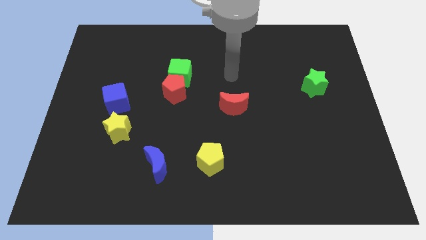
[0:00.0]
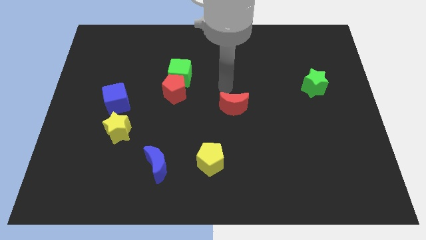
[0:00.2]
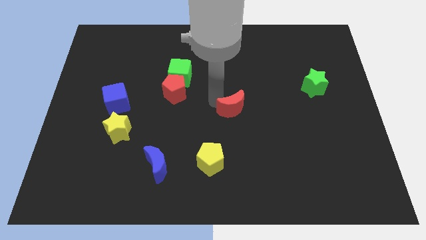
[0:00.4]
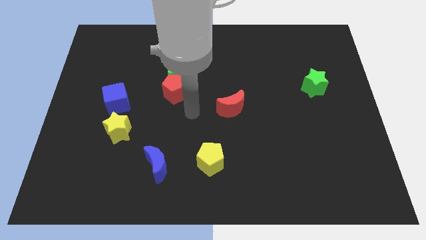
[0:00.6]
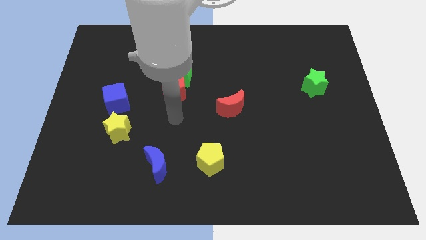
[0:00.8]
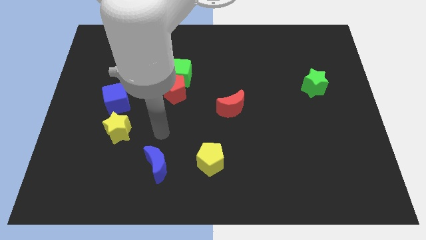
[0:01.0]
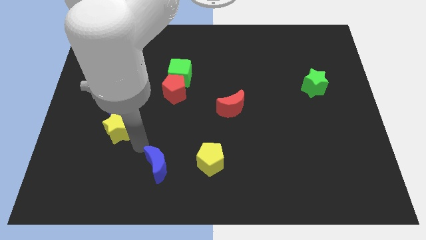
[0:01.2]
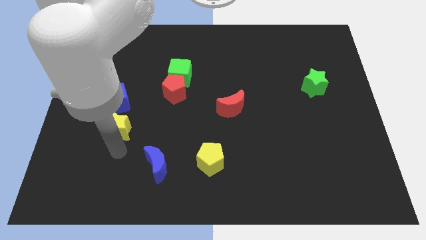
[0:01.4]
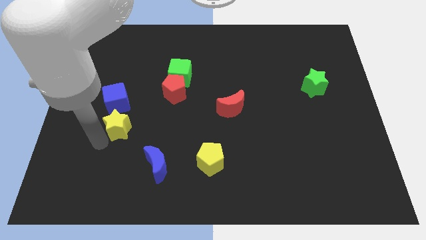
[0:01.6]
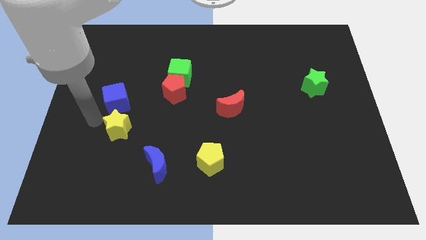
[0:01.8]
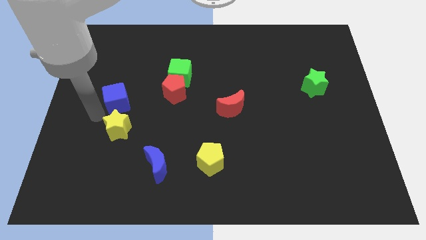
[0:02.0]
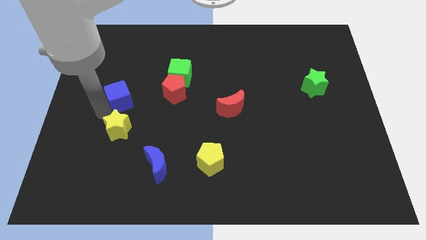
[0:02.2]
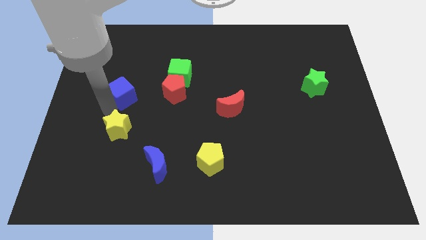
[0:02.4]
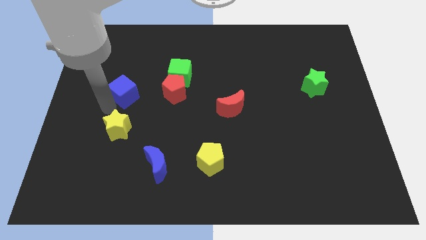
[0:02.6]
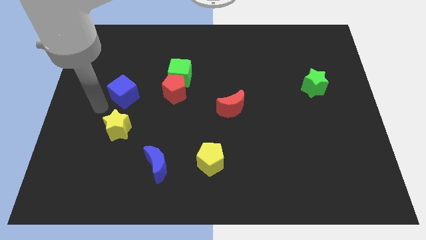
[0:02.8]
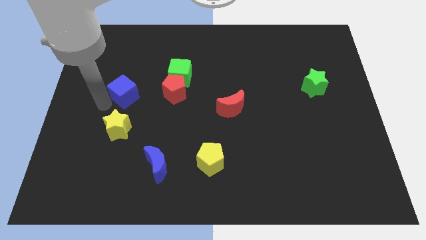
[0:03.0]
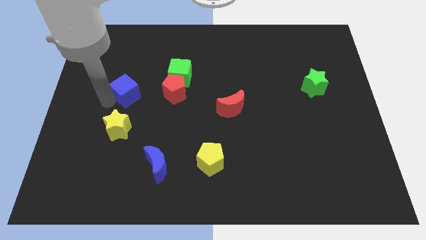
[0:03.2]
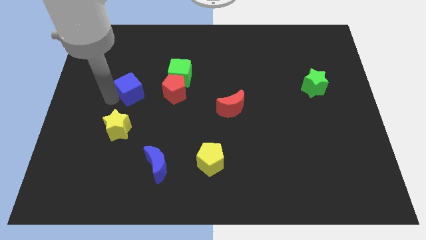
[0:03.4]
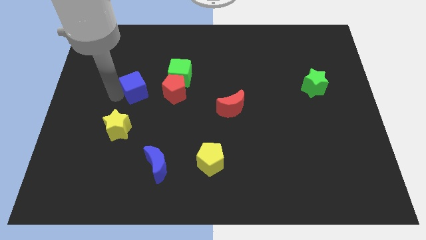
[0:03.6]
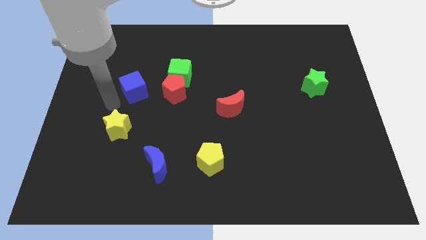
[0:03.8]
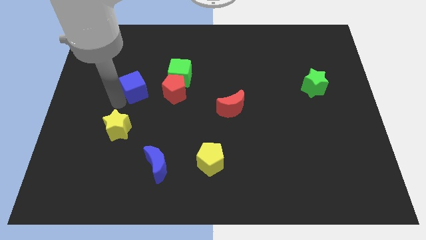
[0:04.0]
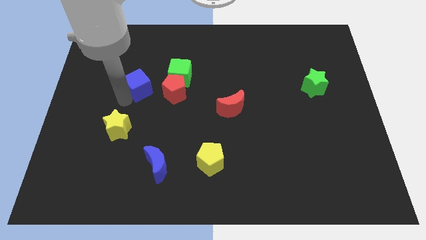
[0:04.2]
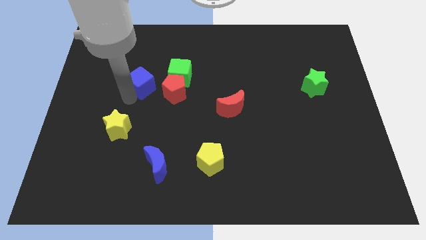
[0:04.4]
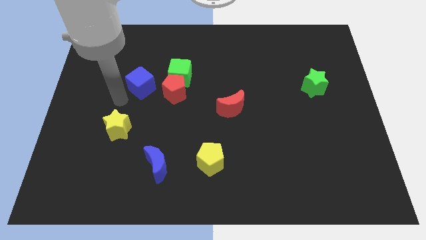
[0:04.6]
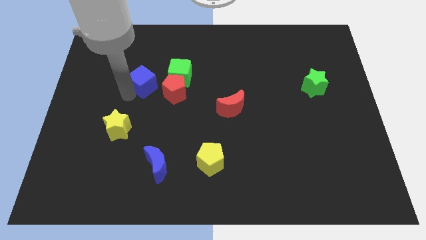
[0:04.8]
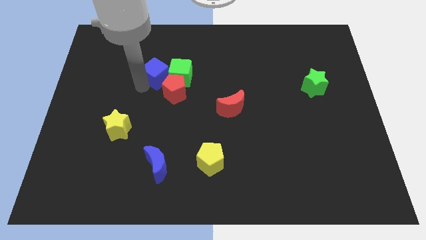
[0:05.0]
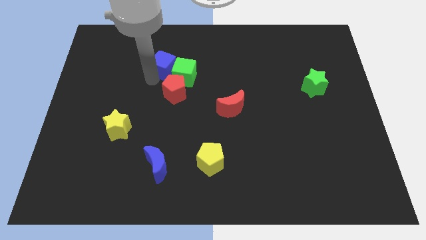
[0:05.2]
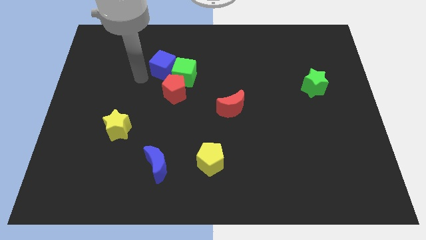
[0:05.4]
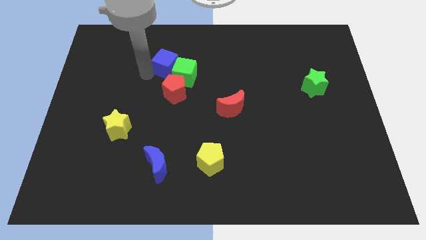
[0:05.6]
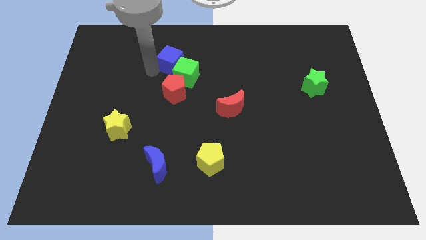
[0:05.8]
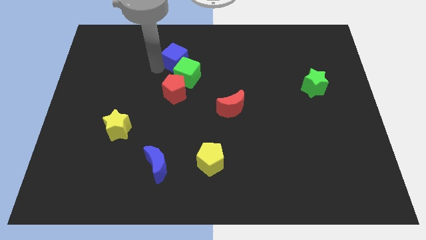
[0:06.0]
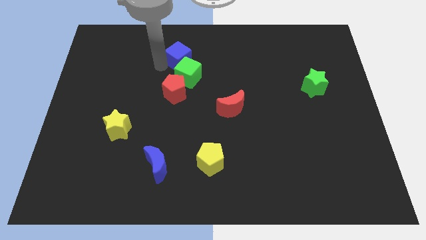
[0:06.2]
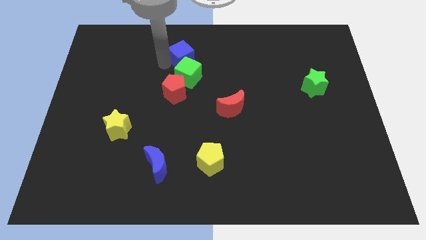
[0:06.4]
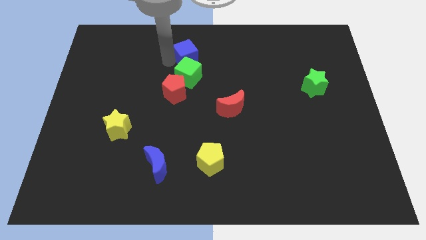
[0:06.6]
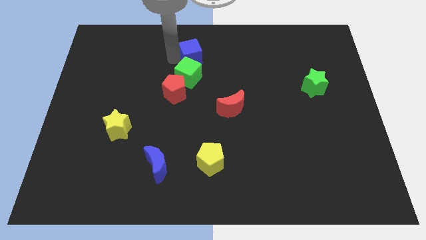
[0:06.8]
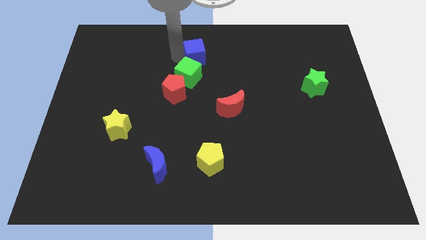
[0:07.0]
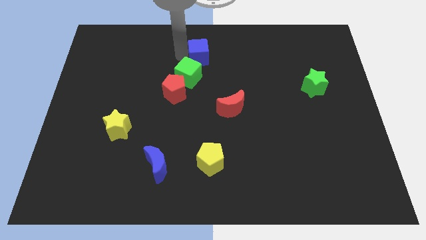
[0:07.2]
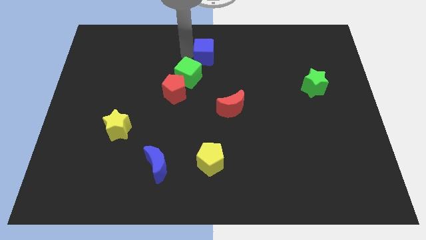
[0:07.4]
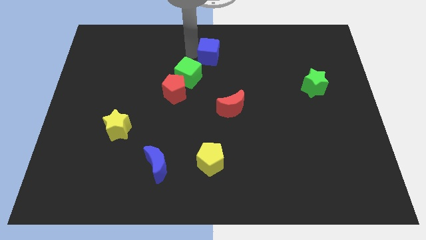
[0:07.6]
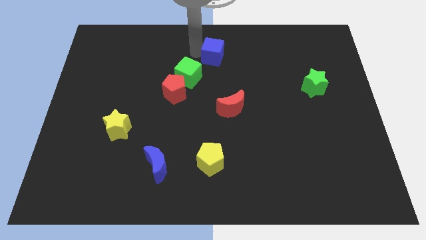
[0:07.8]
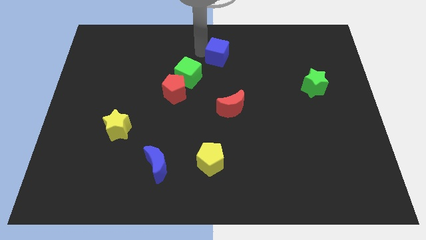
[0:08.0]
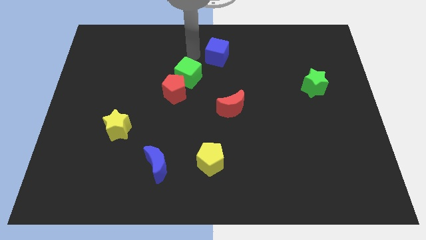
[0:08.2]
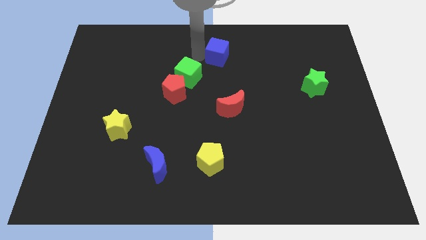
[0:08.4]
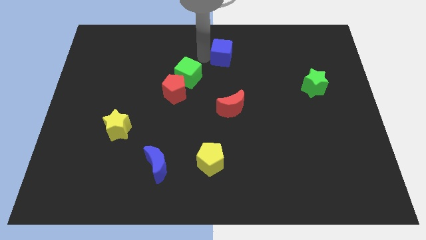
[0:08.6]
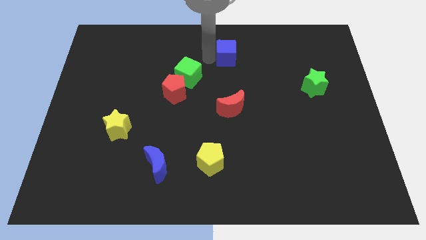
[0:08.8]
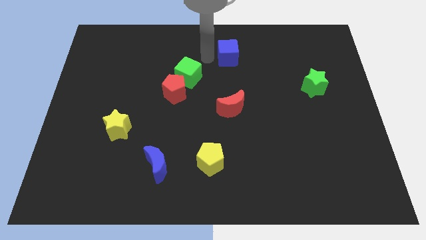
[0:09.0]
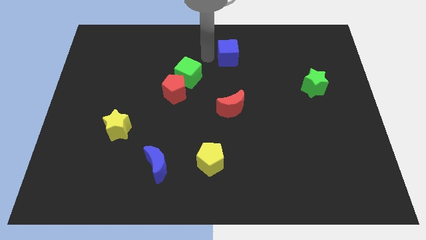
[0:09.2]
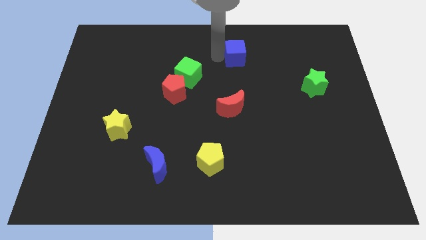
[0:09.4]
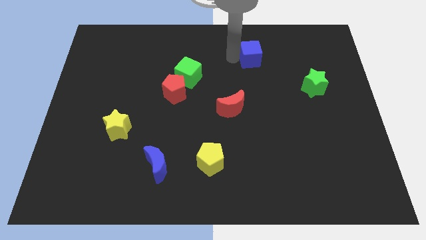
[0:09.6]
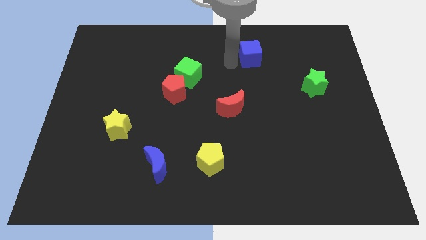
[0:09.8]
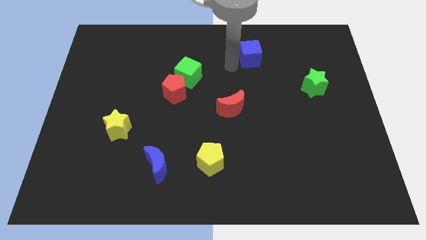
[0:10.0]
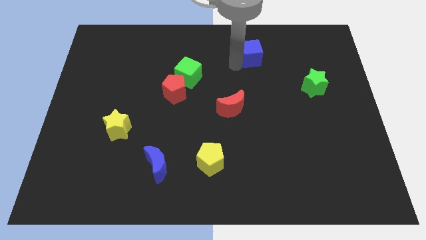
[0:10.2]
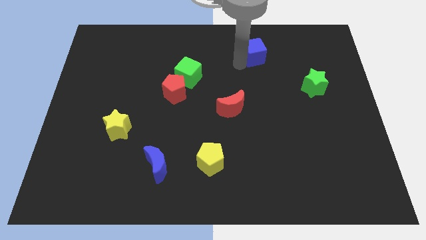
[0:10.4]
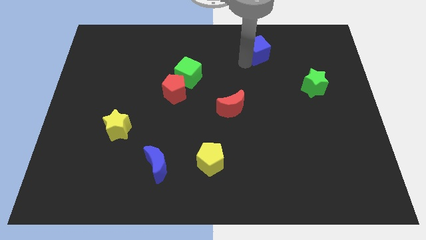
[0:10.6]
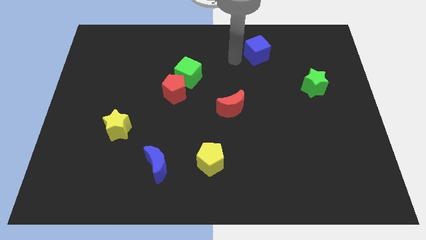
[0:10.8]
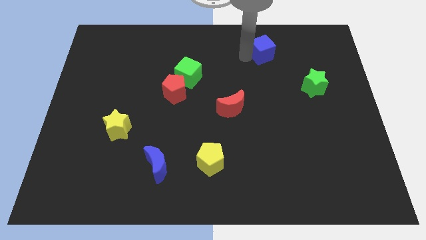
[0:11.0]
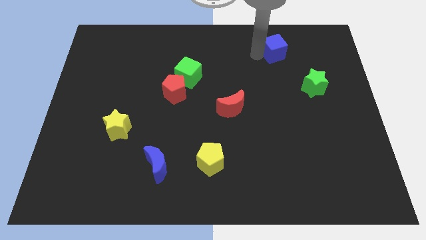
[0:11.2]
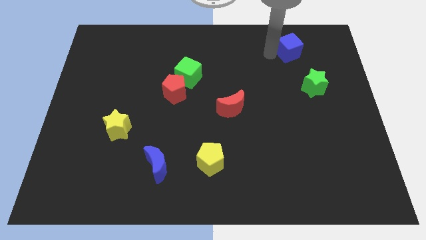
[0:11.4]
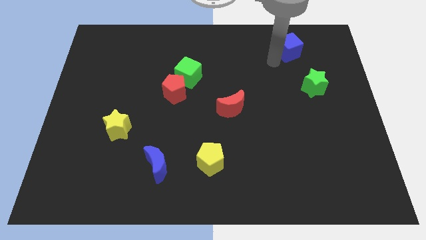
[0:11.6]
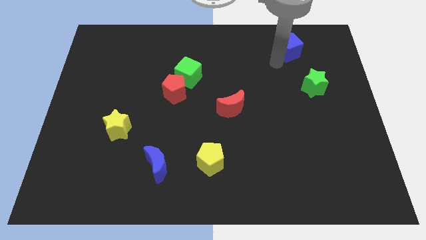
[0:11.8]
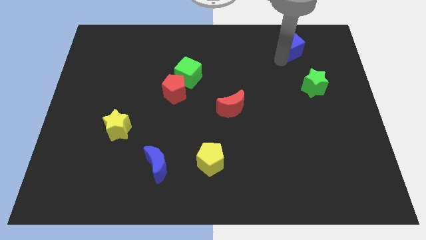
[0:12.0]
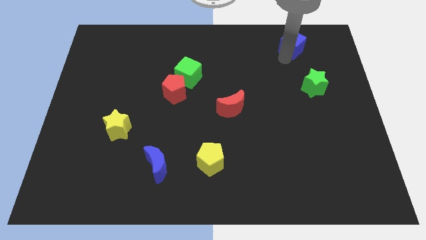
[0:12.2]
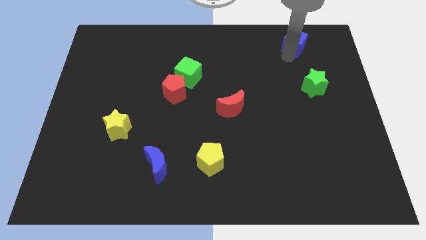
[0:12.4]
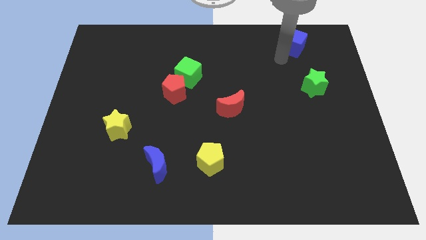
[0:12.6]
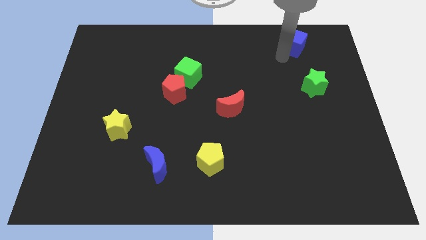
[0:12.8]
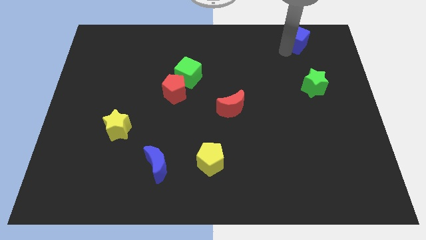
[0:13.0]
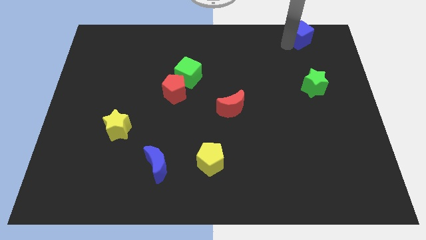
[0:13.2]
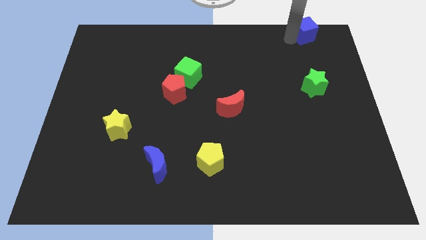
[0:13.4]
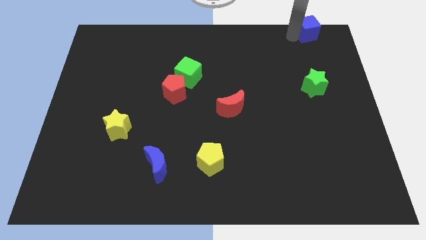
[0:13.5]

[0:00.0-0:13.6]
slide the blue cube to the upper right corner
